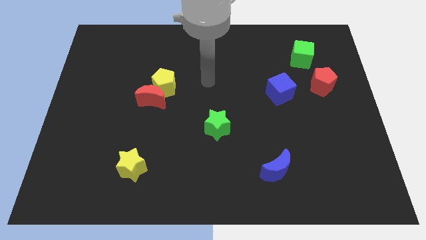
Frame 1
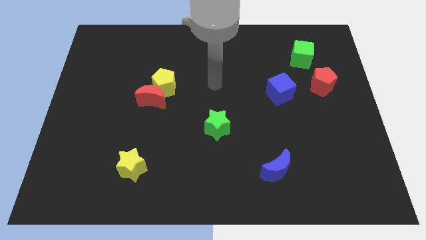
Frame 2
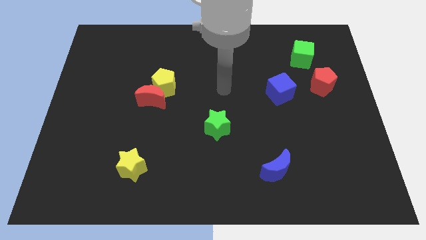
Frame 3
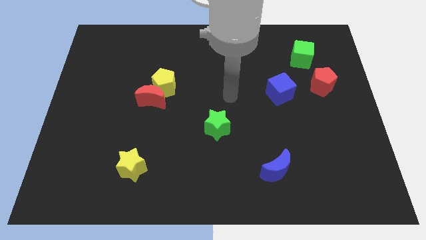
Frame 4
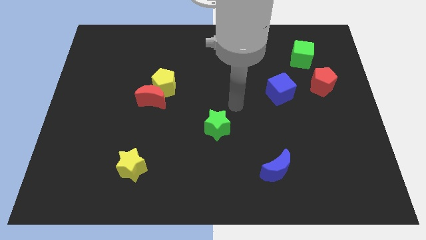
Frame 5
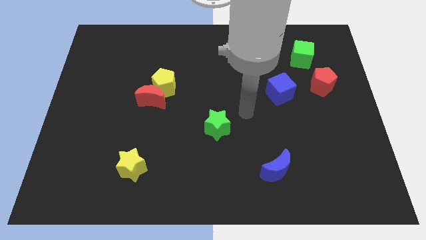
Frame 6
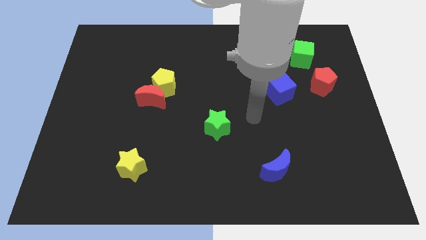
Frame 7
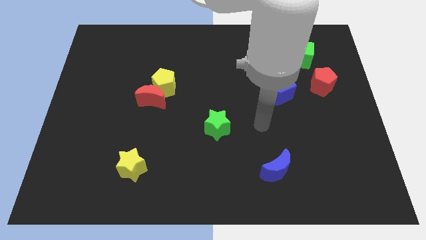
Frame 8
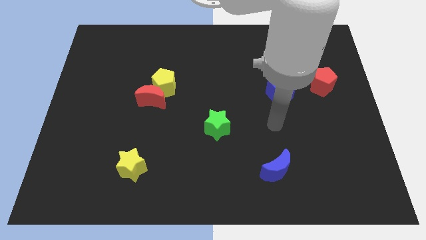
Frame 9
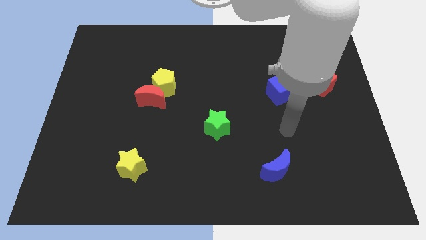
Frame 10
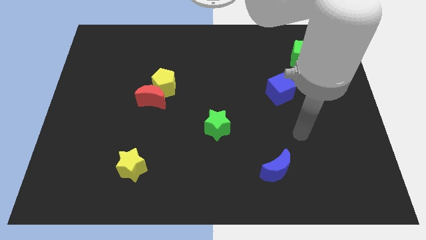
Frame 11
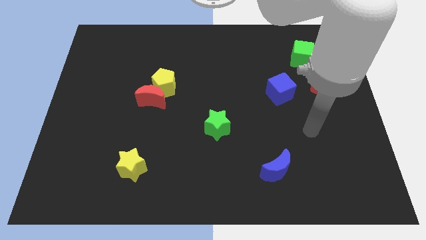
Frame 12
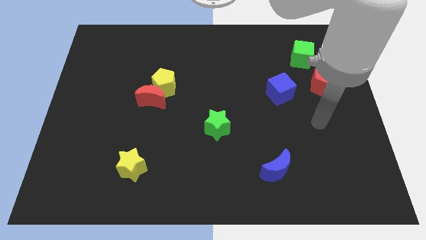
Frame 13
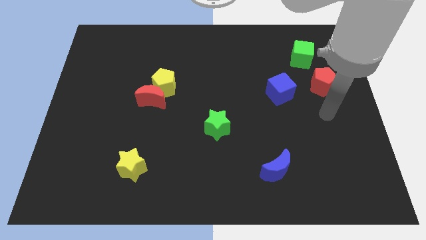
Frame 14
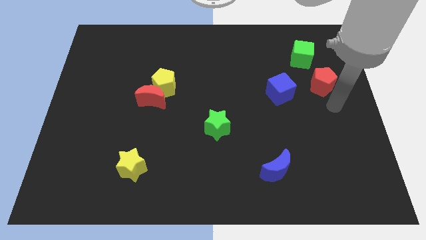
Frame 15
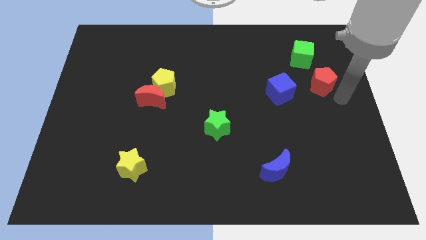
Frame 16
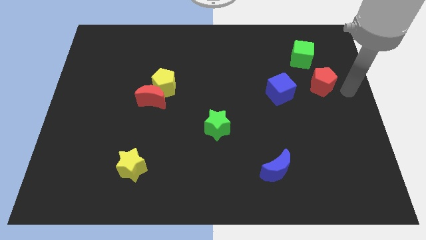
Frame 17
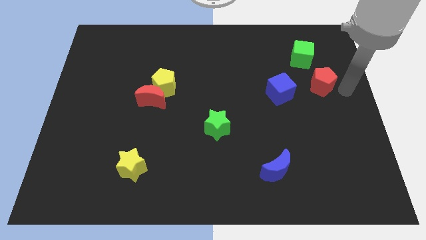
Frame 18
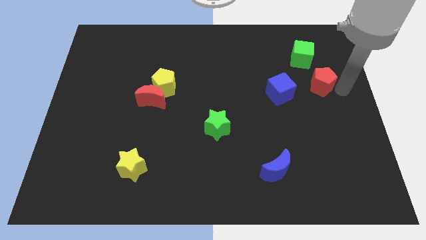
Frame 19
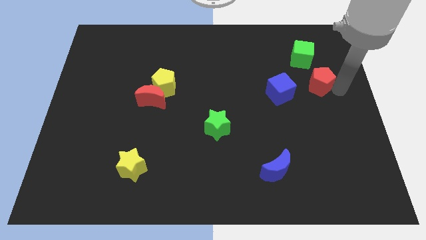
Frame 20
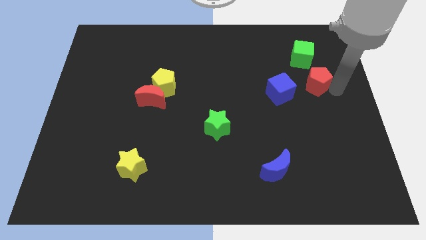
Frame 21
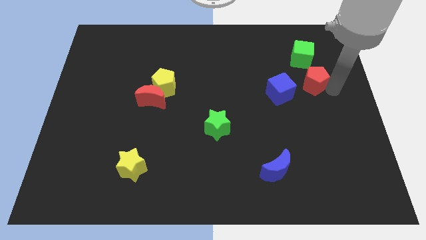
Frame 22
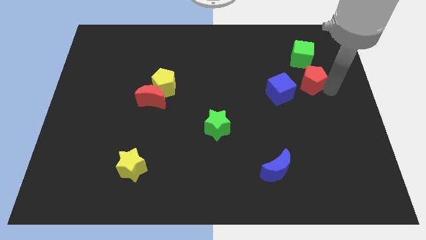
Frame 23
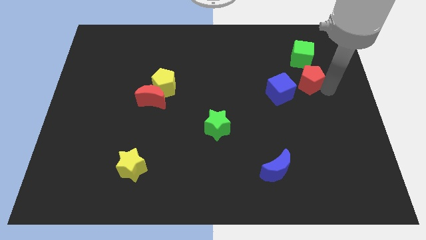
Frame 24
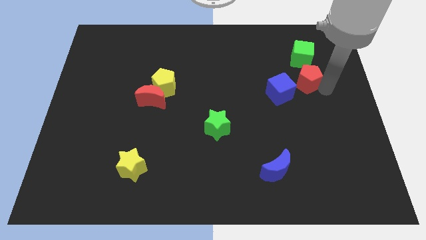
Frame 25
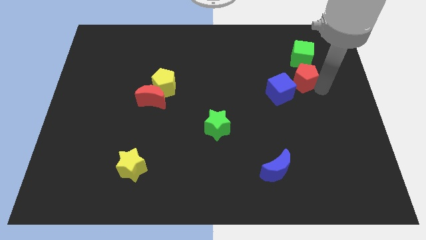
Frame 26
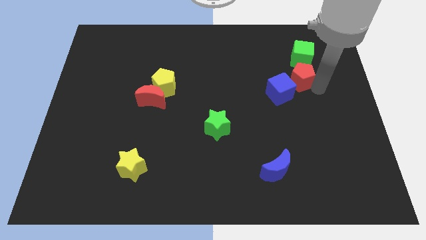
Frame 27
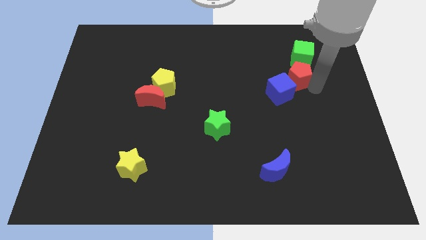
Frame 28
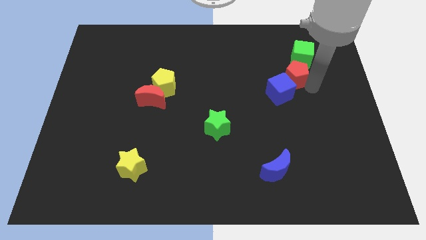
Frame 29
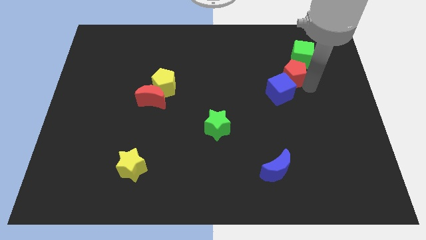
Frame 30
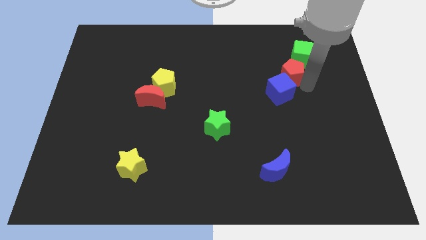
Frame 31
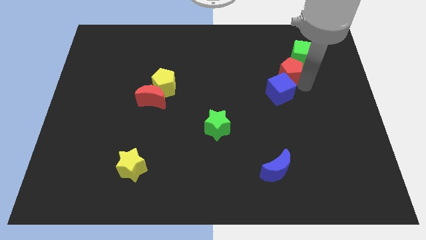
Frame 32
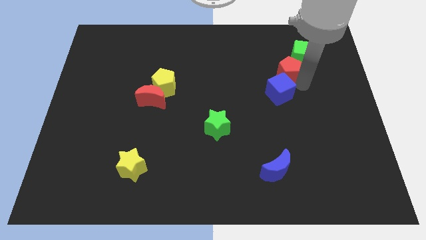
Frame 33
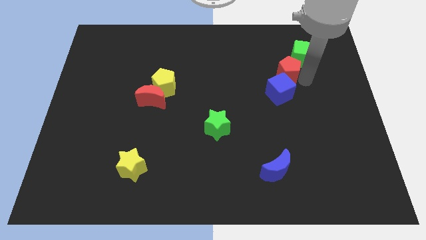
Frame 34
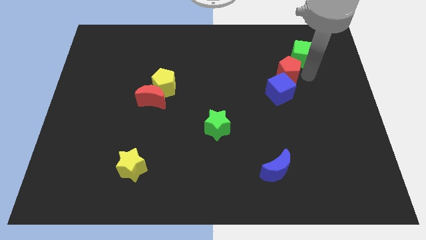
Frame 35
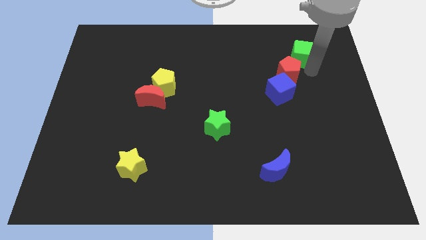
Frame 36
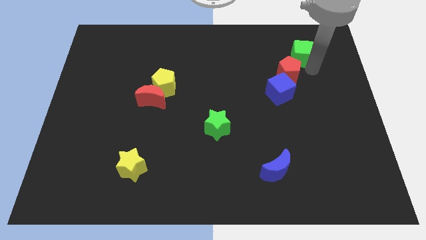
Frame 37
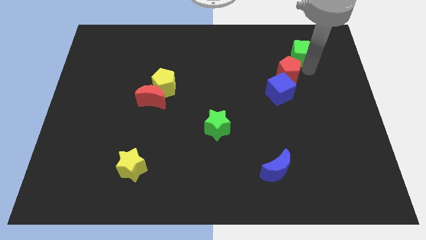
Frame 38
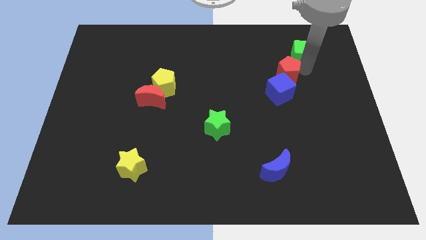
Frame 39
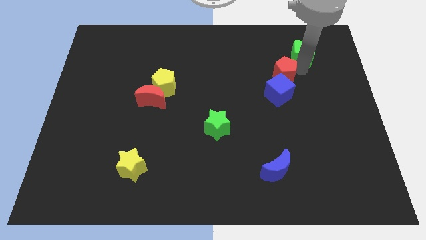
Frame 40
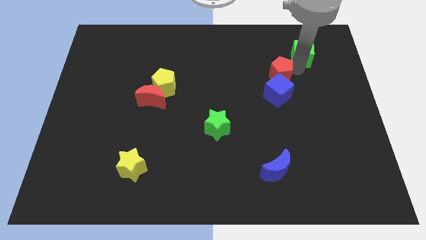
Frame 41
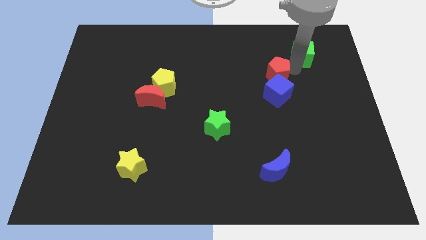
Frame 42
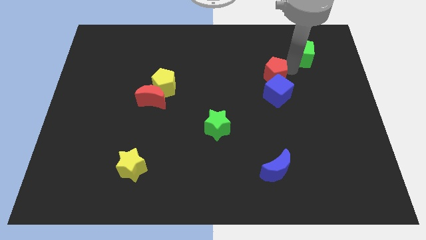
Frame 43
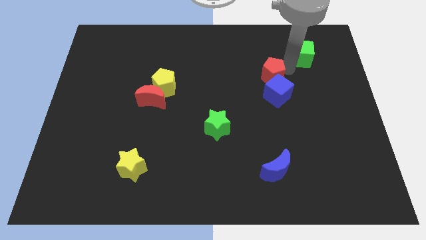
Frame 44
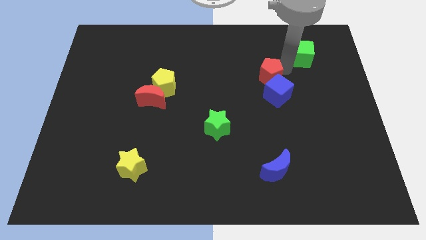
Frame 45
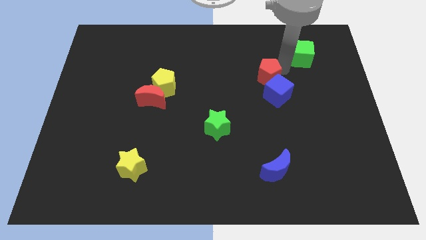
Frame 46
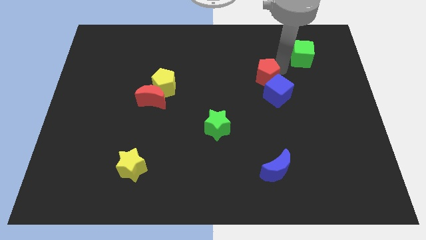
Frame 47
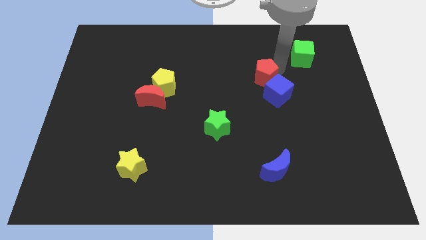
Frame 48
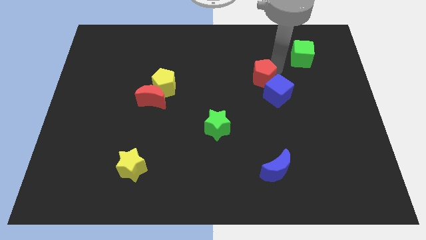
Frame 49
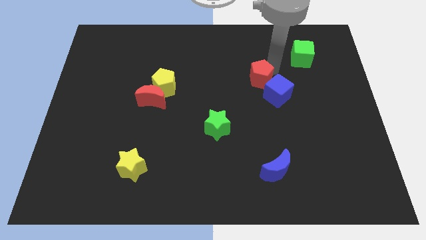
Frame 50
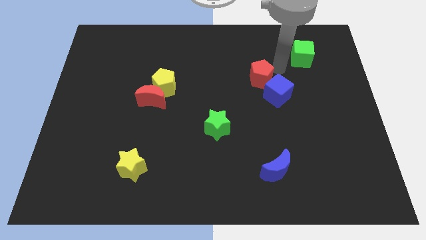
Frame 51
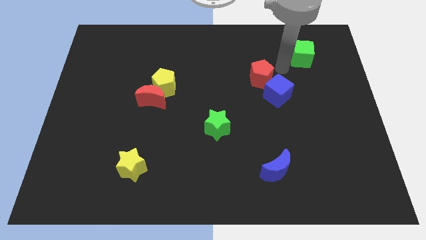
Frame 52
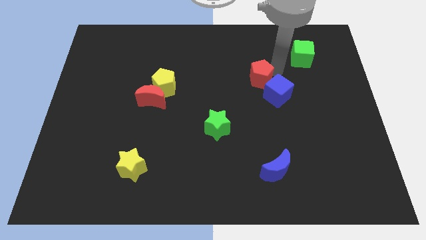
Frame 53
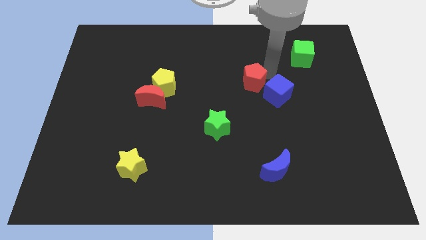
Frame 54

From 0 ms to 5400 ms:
push the red pentagon to the middle of the board

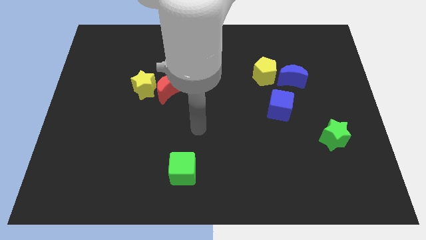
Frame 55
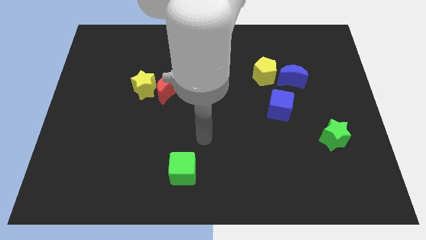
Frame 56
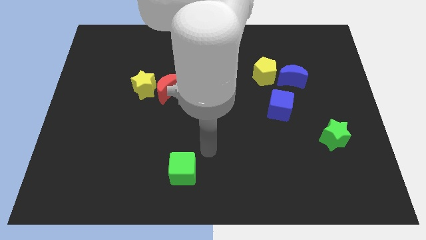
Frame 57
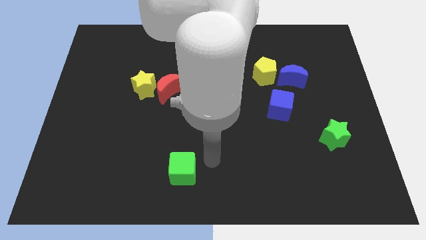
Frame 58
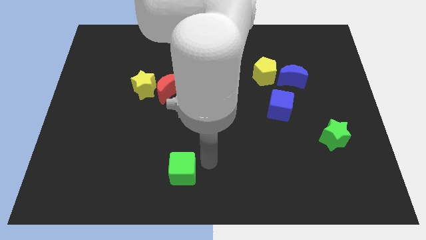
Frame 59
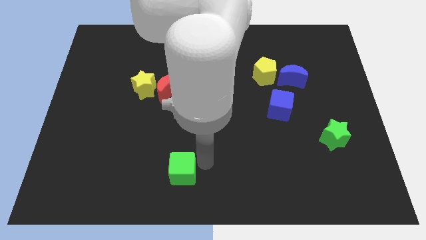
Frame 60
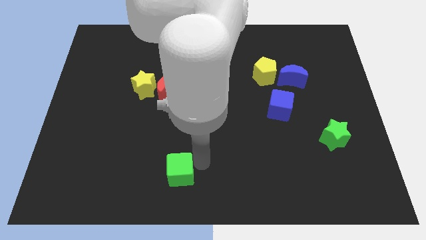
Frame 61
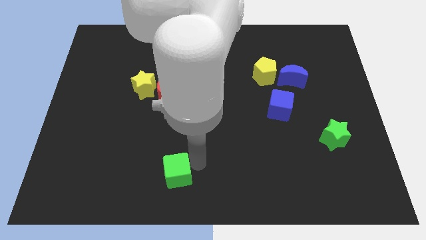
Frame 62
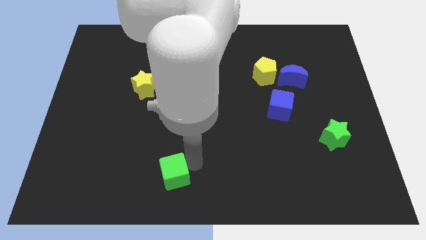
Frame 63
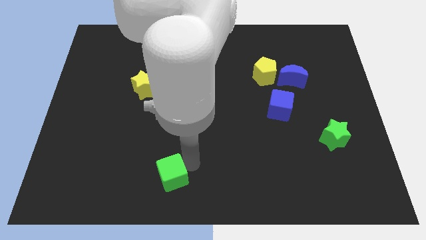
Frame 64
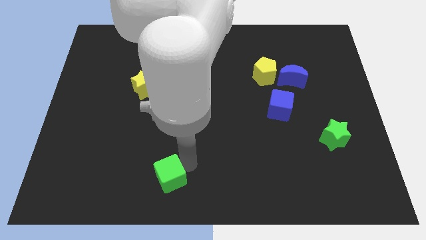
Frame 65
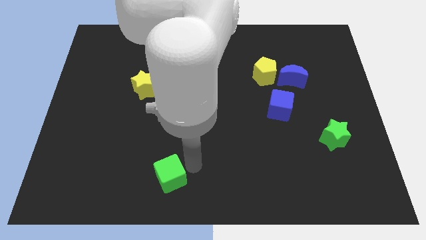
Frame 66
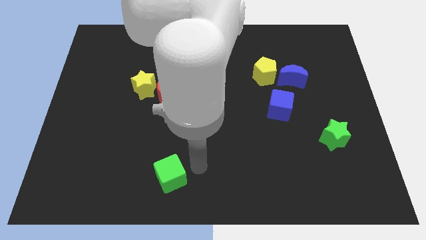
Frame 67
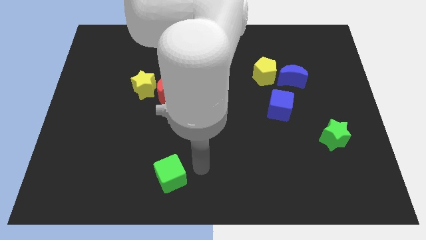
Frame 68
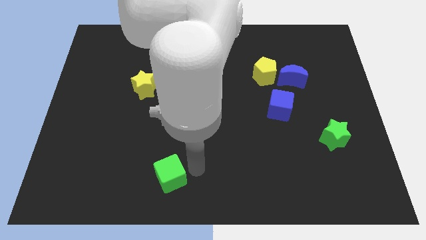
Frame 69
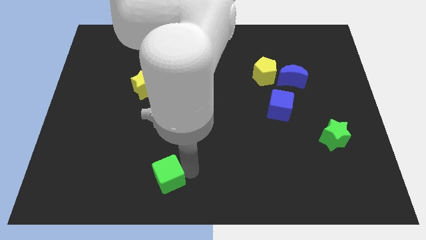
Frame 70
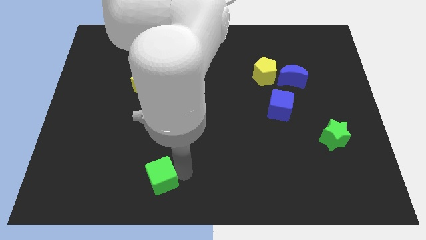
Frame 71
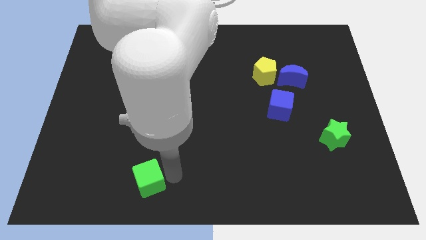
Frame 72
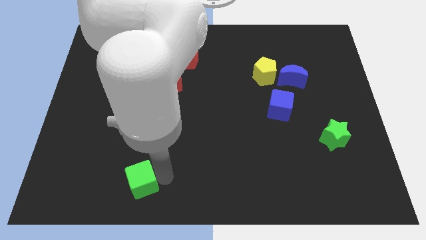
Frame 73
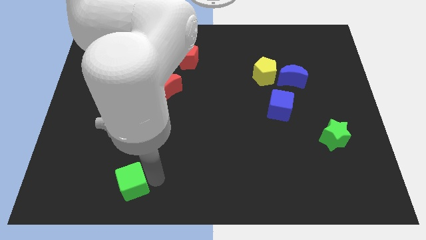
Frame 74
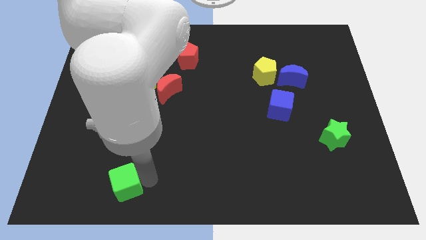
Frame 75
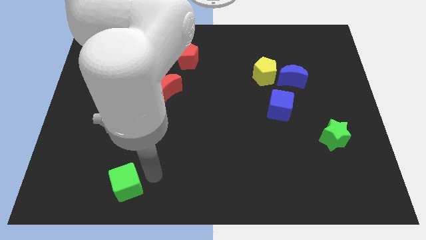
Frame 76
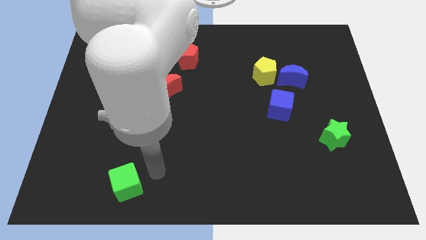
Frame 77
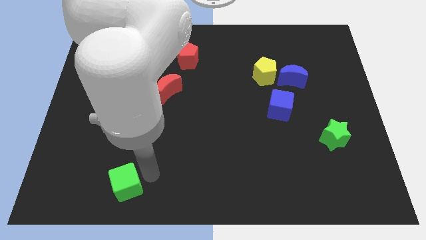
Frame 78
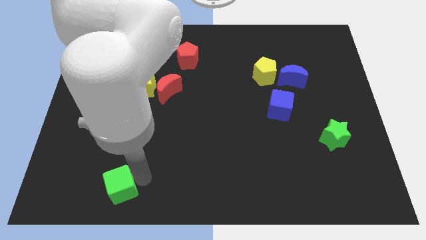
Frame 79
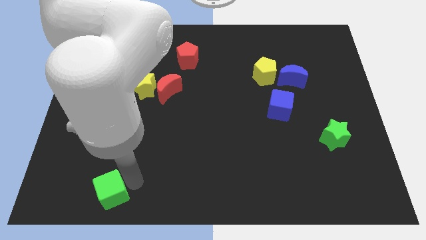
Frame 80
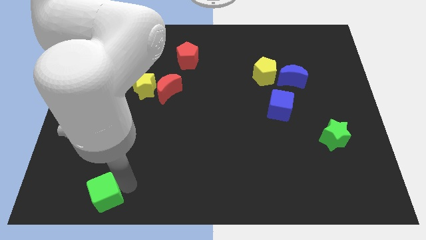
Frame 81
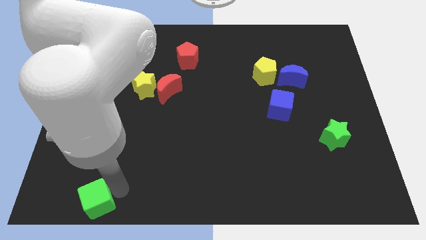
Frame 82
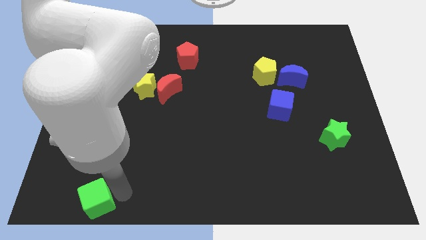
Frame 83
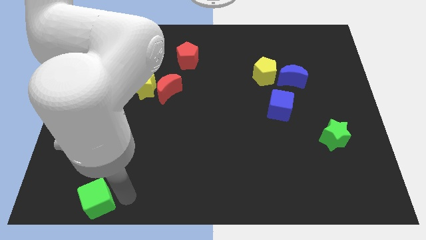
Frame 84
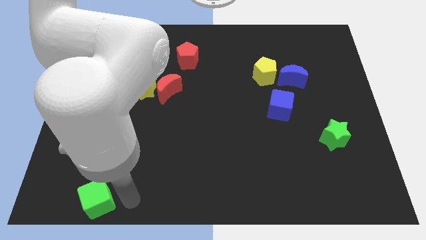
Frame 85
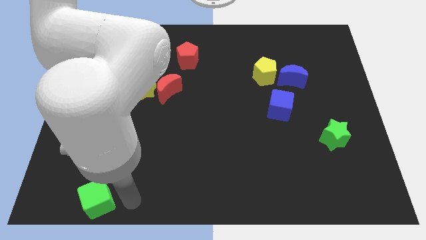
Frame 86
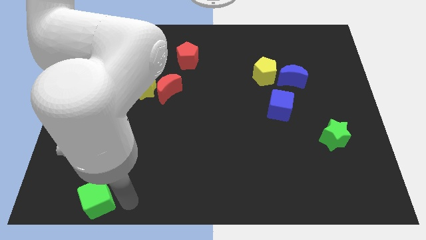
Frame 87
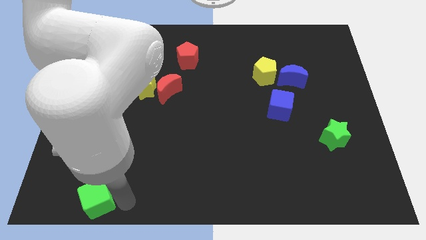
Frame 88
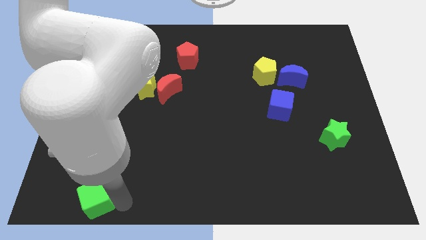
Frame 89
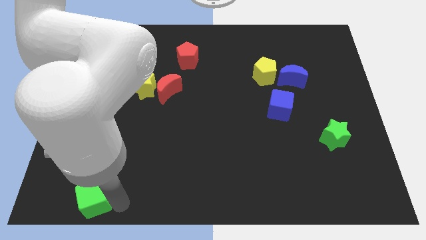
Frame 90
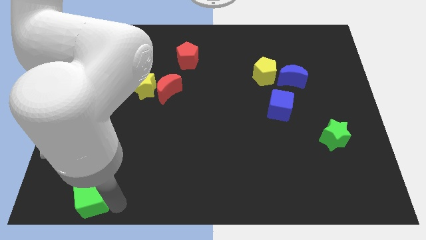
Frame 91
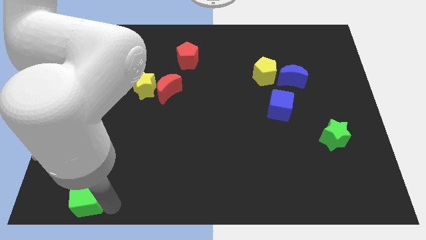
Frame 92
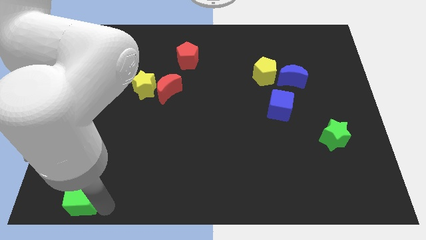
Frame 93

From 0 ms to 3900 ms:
put the green cube to the bottom left corner
